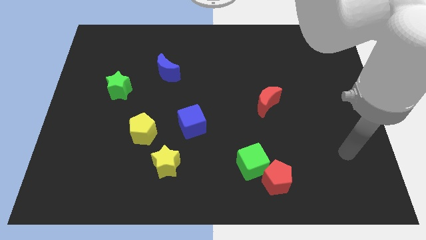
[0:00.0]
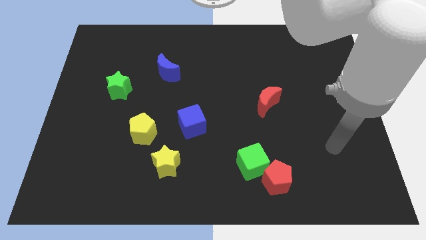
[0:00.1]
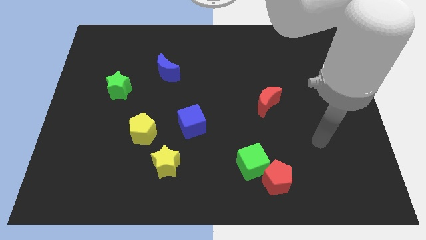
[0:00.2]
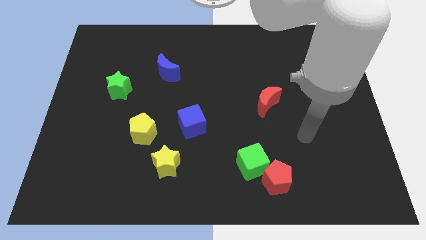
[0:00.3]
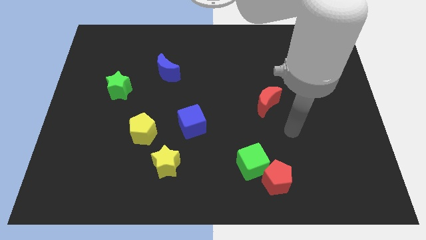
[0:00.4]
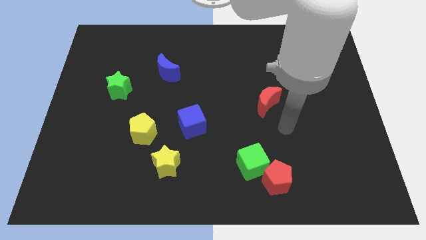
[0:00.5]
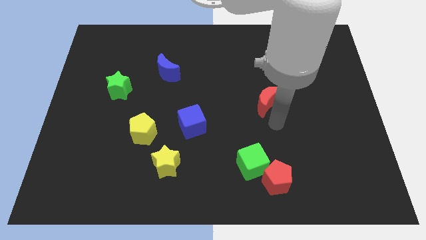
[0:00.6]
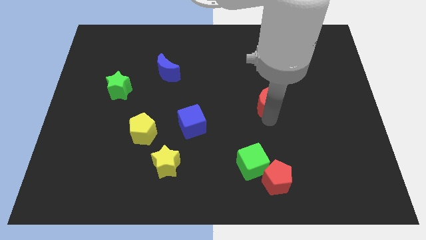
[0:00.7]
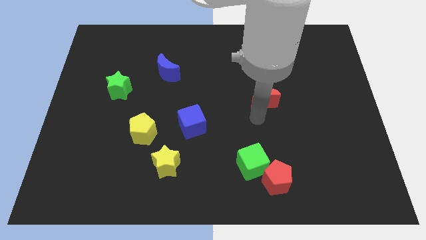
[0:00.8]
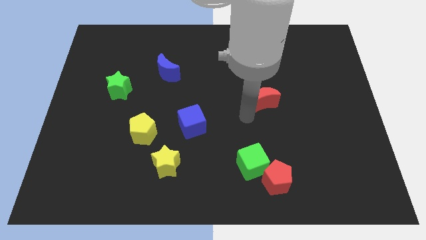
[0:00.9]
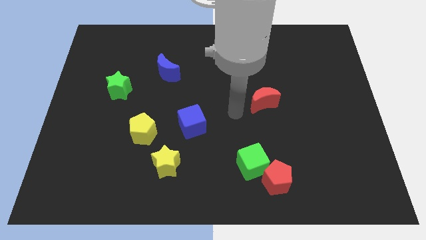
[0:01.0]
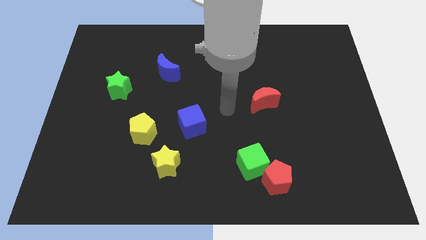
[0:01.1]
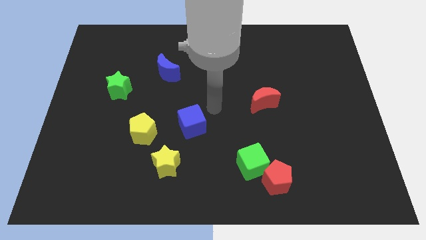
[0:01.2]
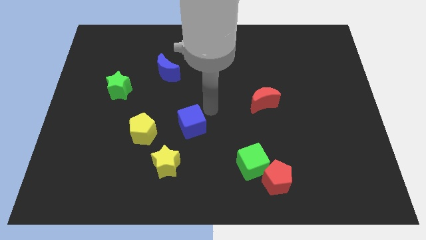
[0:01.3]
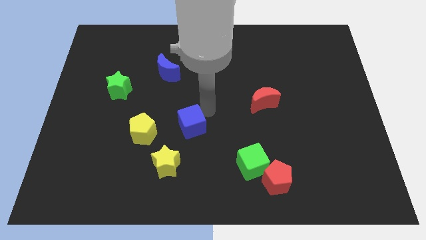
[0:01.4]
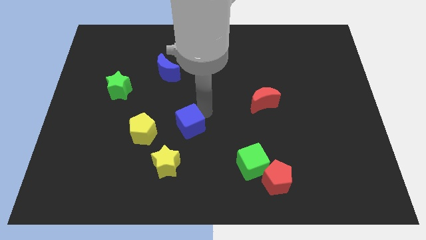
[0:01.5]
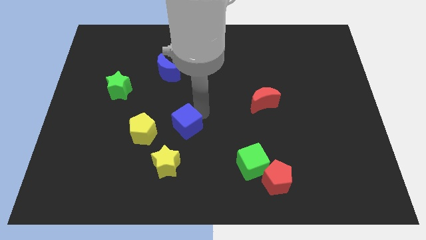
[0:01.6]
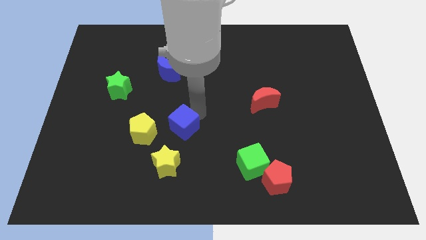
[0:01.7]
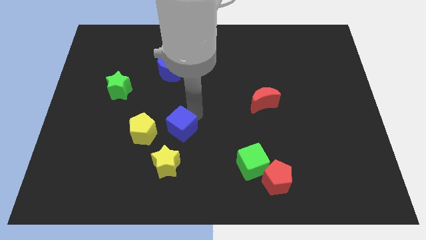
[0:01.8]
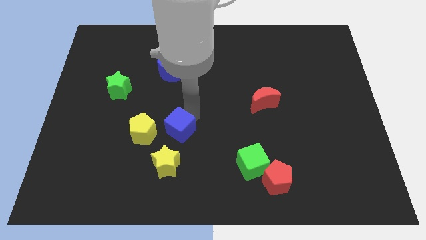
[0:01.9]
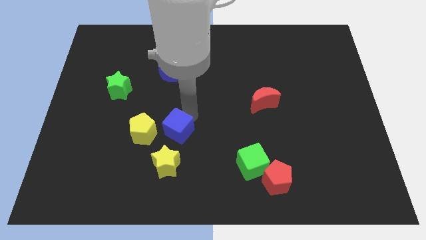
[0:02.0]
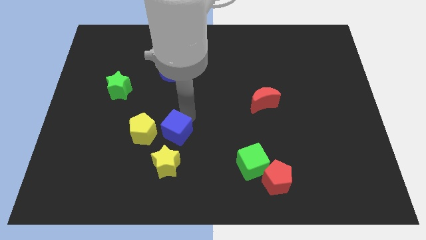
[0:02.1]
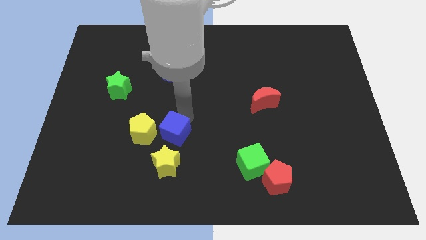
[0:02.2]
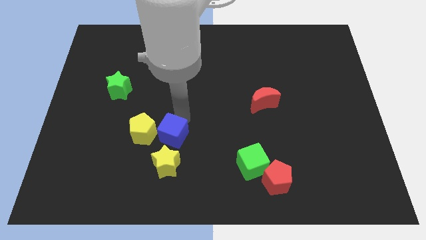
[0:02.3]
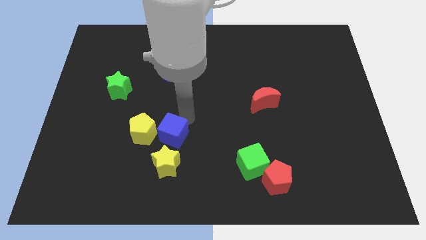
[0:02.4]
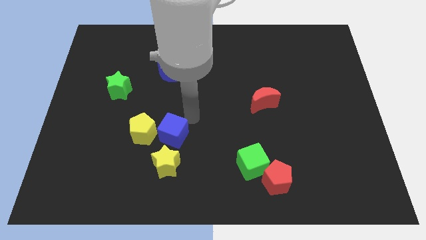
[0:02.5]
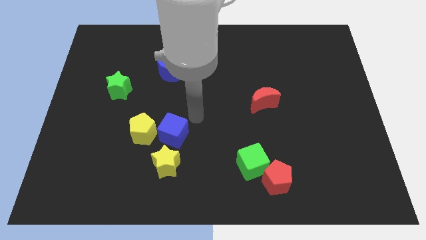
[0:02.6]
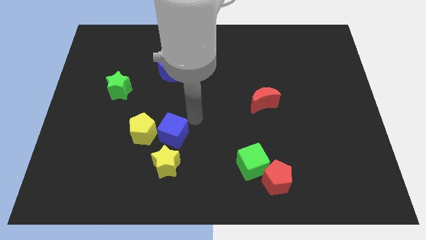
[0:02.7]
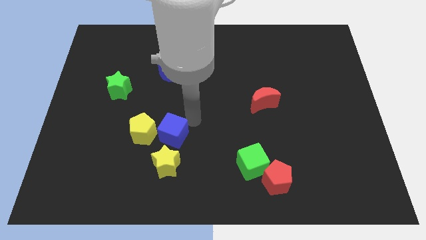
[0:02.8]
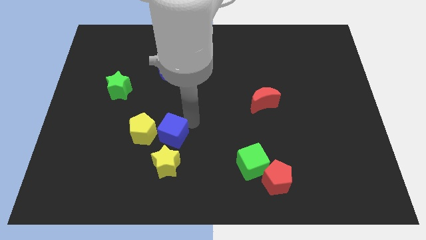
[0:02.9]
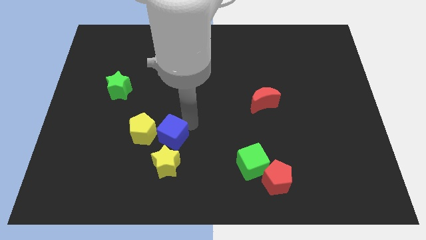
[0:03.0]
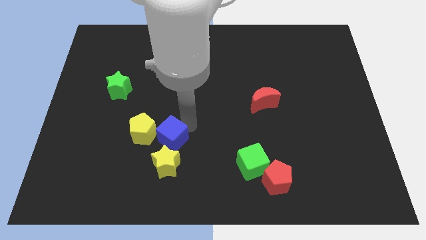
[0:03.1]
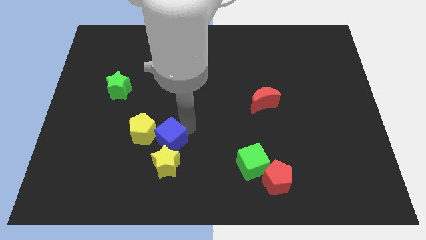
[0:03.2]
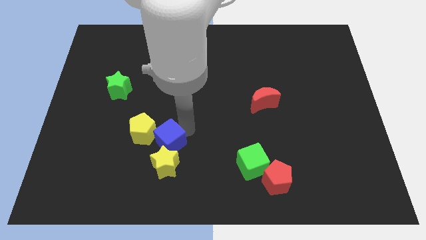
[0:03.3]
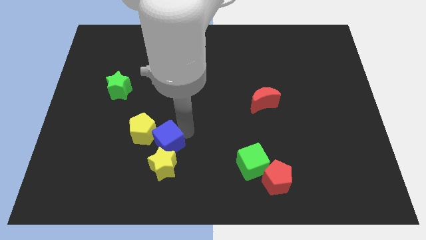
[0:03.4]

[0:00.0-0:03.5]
move the blue cube down and left diagonally a little bit

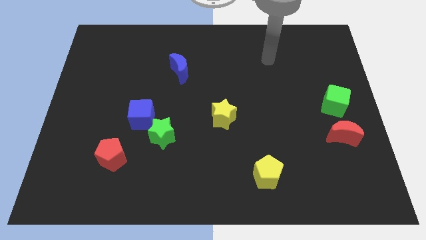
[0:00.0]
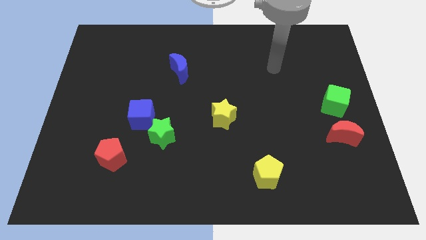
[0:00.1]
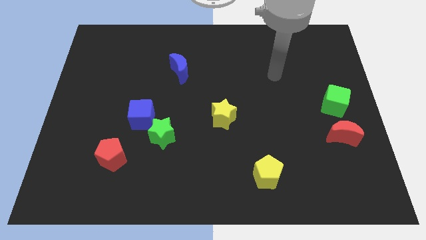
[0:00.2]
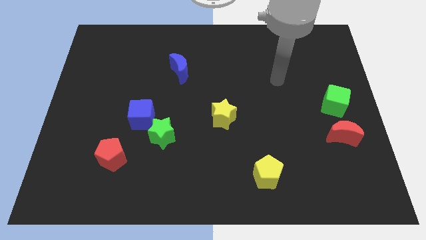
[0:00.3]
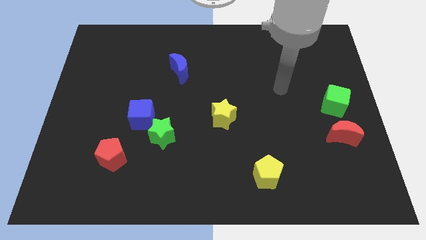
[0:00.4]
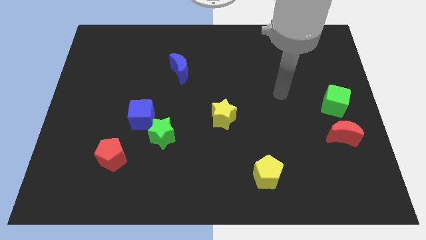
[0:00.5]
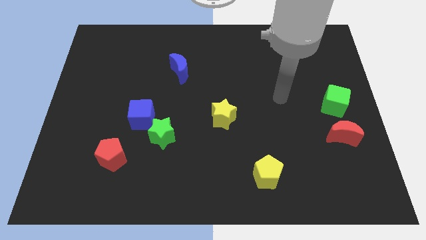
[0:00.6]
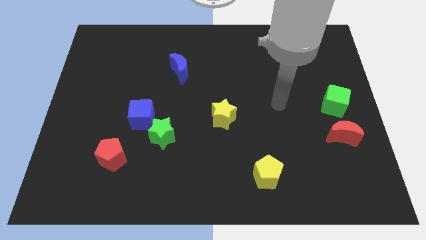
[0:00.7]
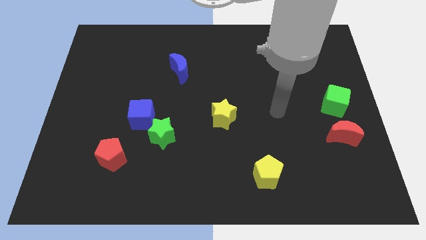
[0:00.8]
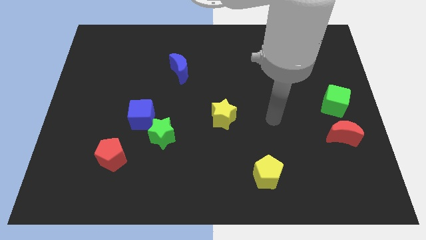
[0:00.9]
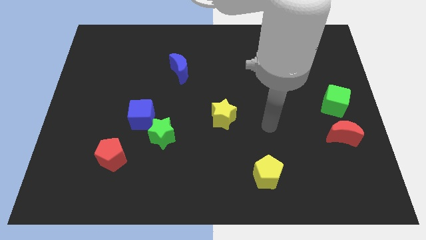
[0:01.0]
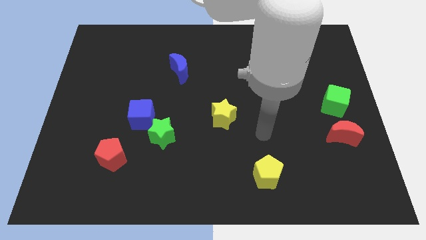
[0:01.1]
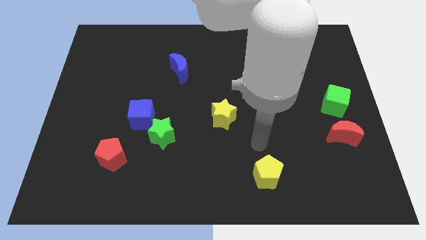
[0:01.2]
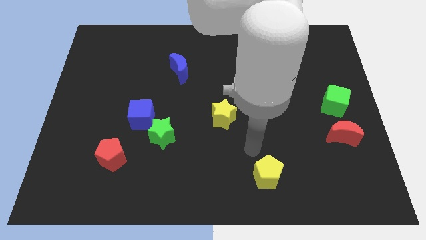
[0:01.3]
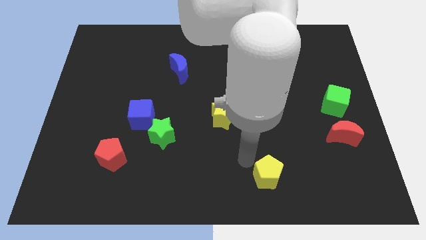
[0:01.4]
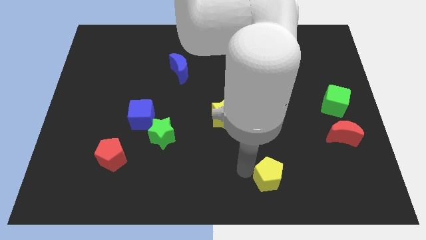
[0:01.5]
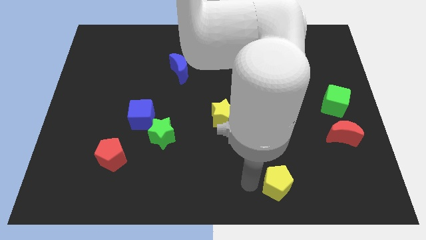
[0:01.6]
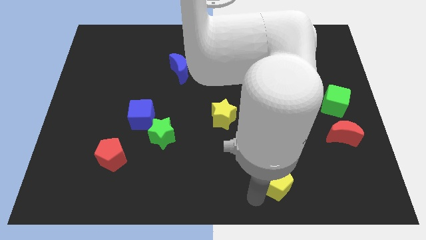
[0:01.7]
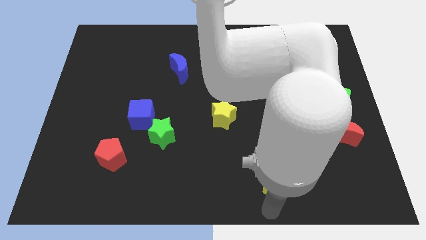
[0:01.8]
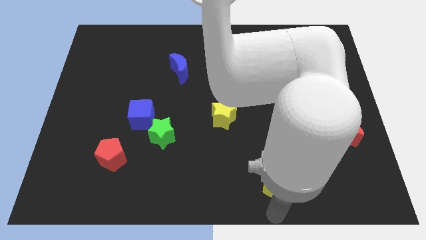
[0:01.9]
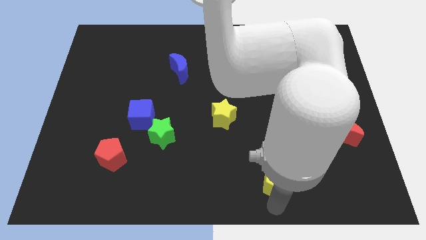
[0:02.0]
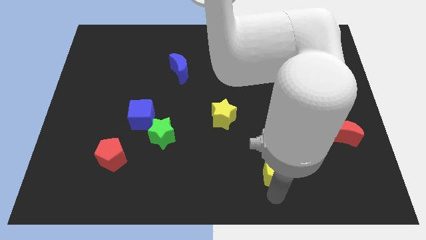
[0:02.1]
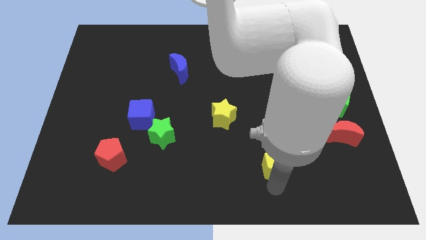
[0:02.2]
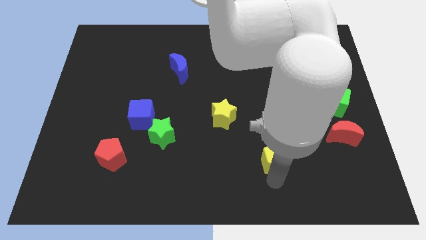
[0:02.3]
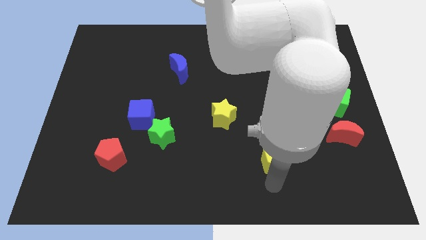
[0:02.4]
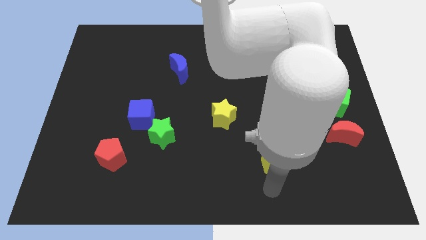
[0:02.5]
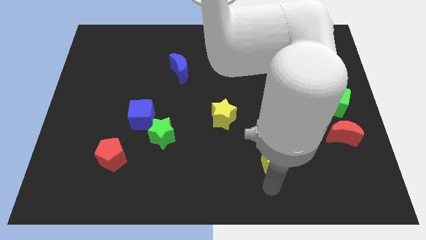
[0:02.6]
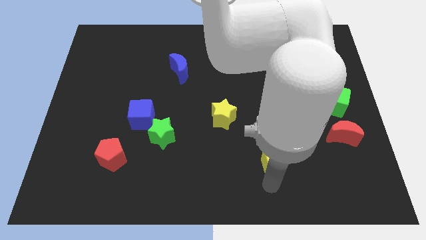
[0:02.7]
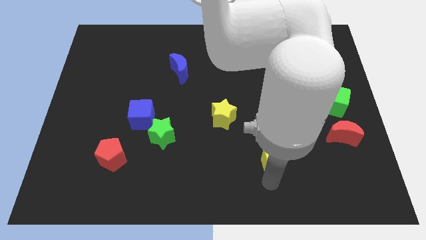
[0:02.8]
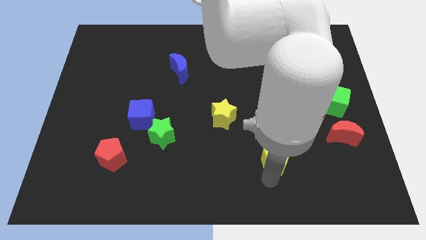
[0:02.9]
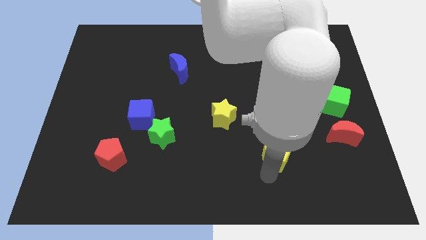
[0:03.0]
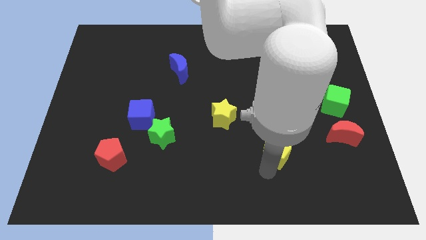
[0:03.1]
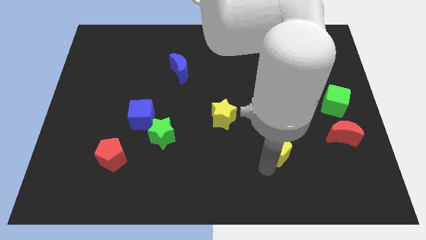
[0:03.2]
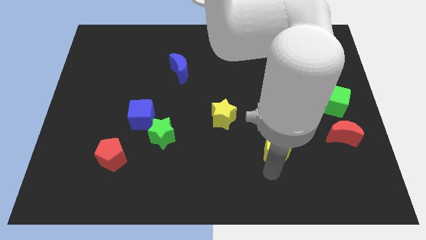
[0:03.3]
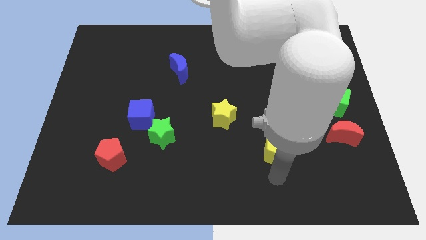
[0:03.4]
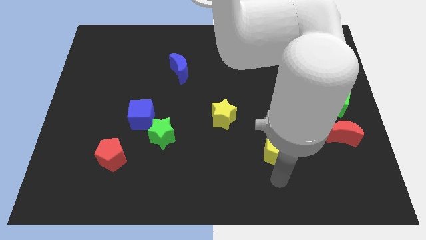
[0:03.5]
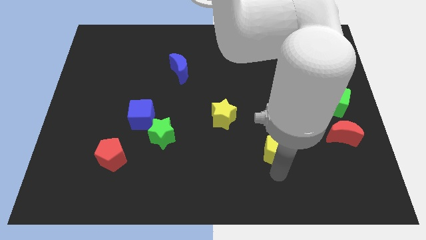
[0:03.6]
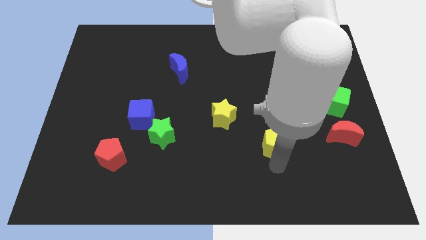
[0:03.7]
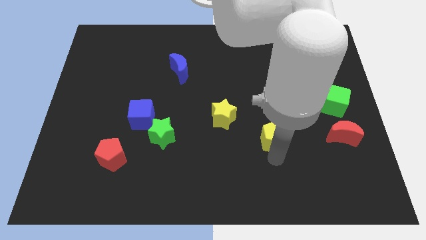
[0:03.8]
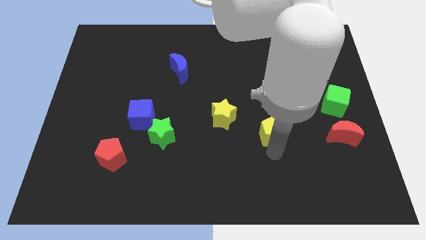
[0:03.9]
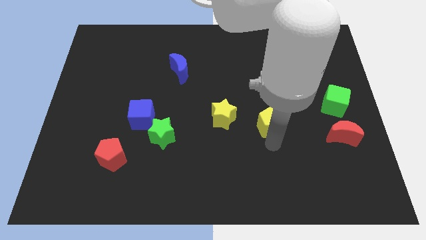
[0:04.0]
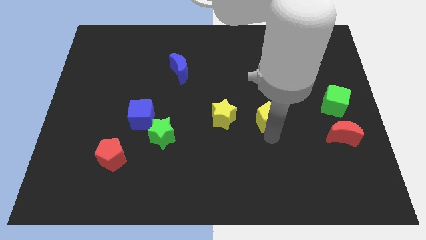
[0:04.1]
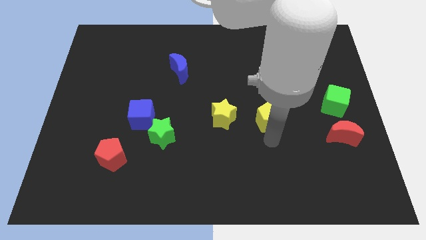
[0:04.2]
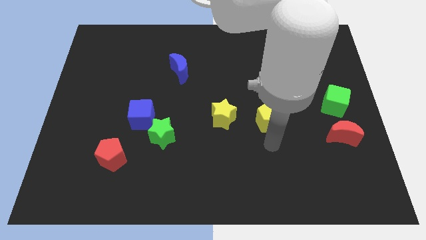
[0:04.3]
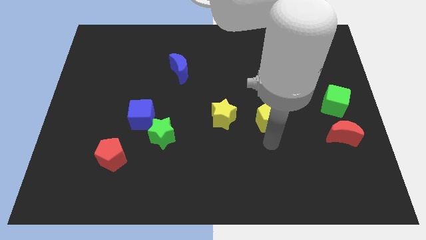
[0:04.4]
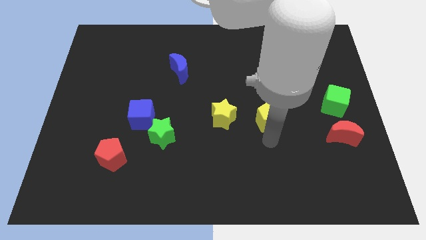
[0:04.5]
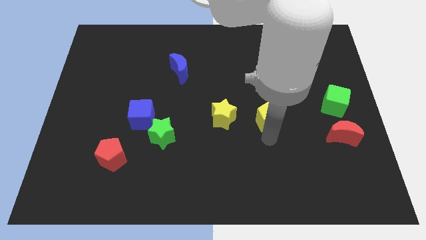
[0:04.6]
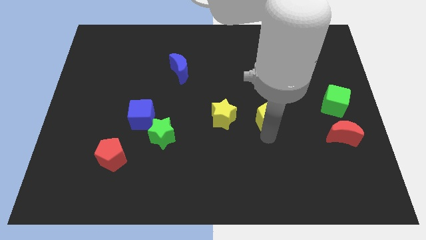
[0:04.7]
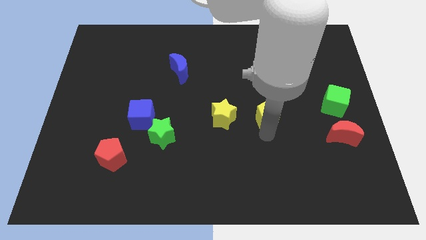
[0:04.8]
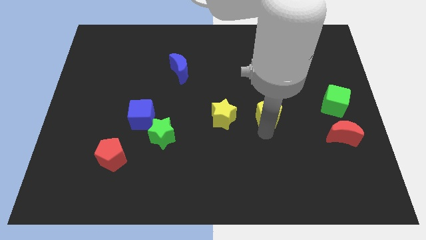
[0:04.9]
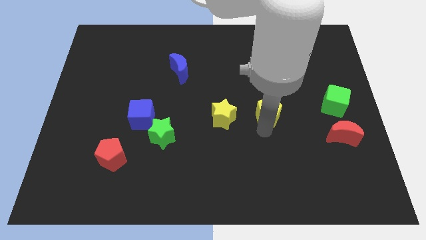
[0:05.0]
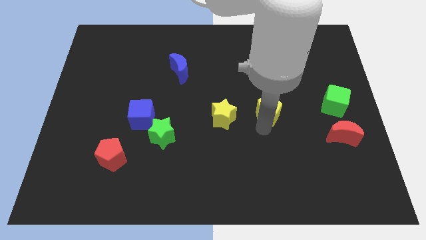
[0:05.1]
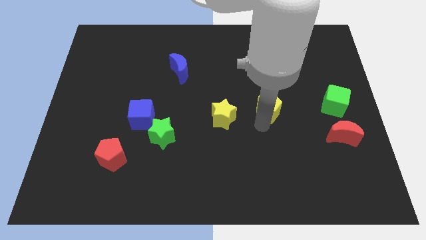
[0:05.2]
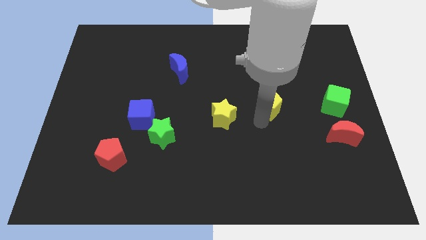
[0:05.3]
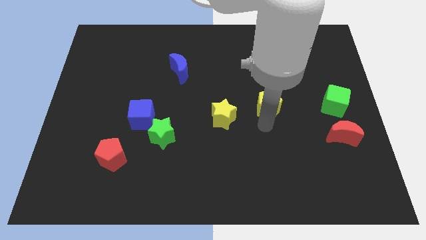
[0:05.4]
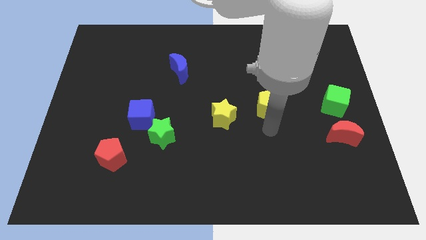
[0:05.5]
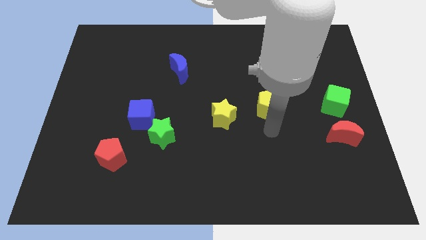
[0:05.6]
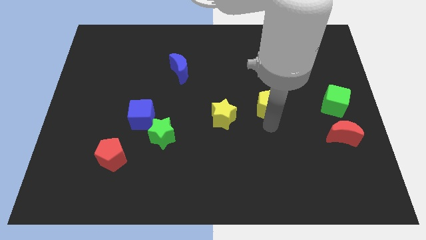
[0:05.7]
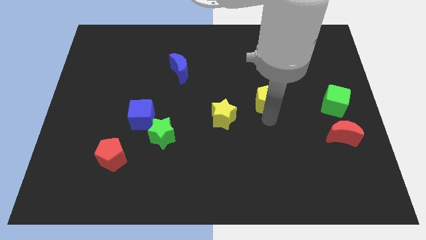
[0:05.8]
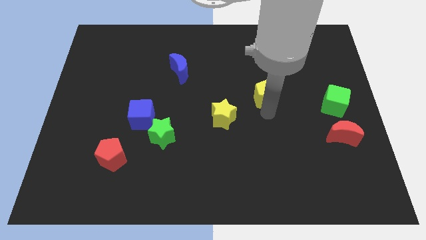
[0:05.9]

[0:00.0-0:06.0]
move the yellow pentagon upwards
